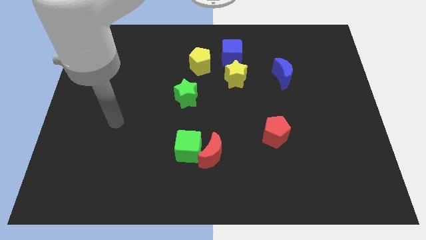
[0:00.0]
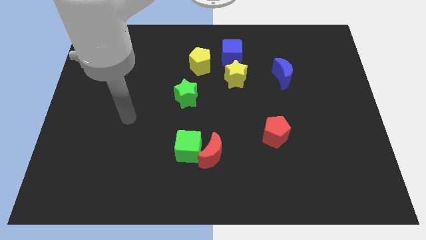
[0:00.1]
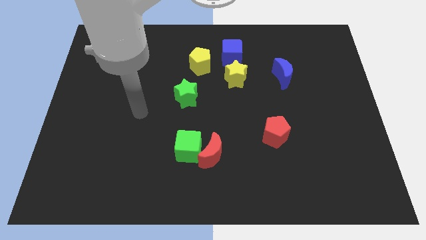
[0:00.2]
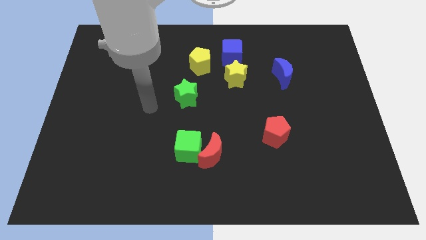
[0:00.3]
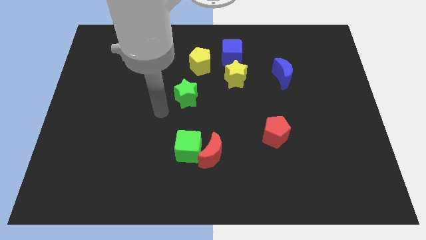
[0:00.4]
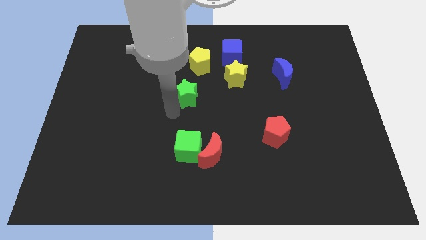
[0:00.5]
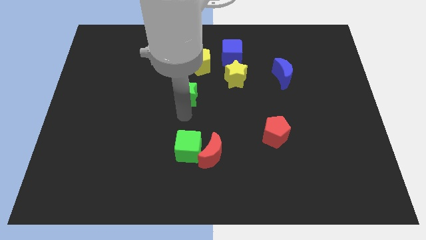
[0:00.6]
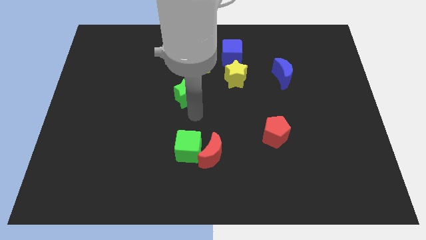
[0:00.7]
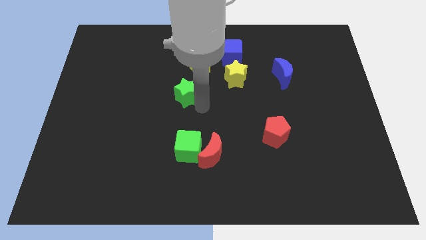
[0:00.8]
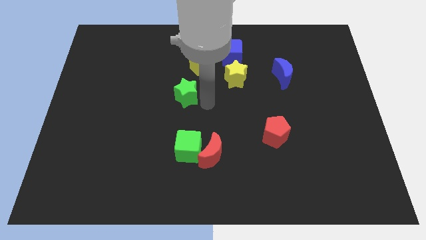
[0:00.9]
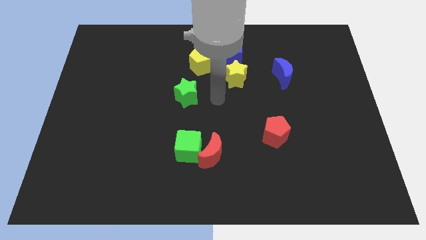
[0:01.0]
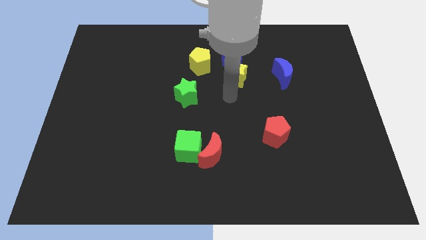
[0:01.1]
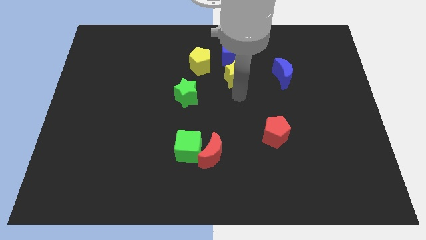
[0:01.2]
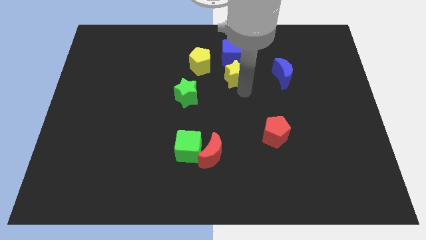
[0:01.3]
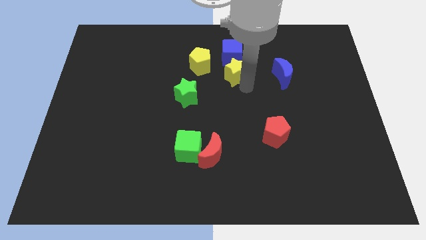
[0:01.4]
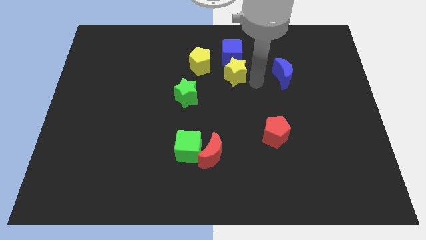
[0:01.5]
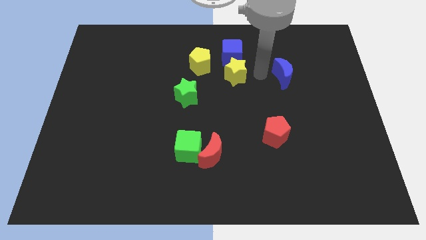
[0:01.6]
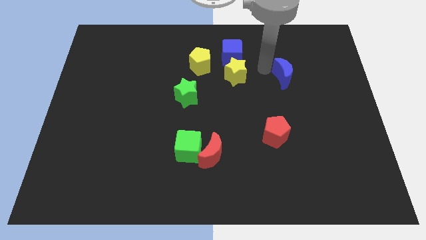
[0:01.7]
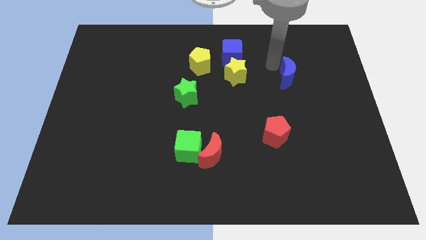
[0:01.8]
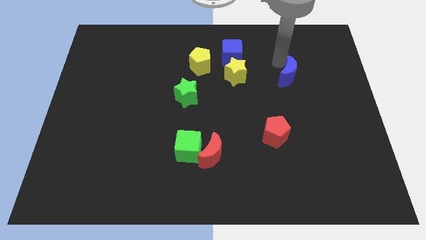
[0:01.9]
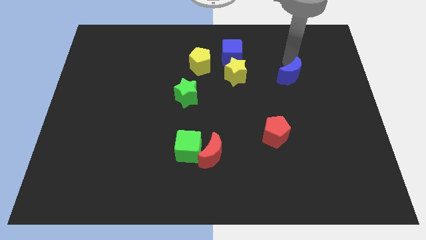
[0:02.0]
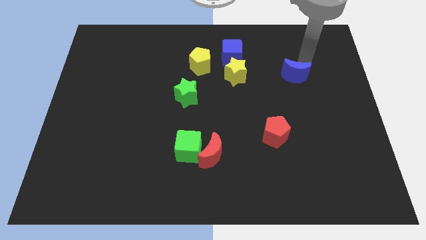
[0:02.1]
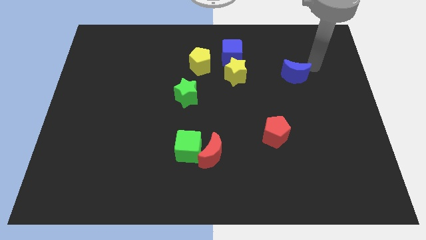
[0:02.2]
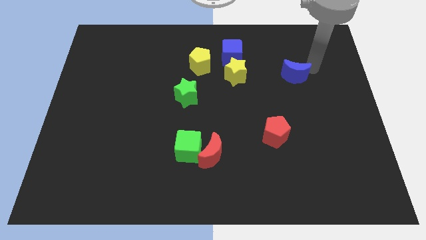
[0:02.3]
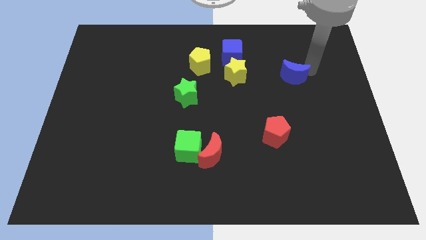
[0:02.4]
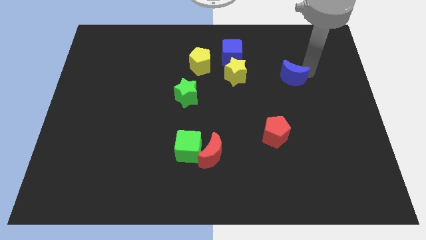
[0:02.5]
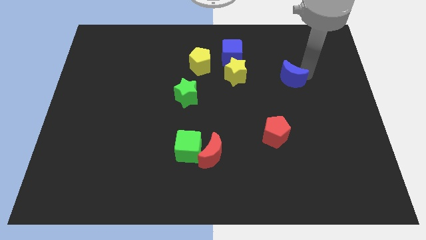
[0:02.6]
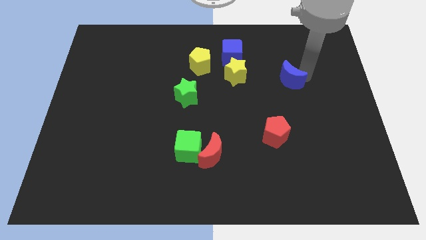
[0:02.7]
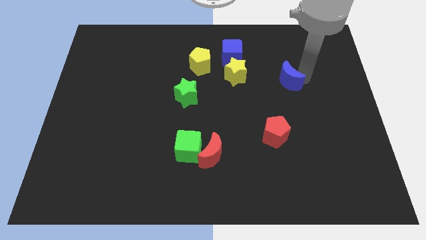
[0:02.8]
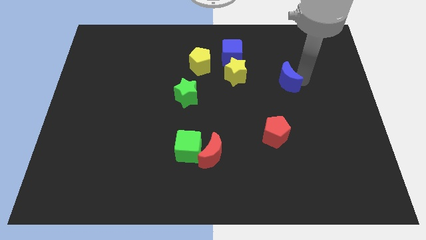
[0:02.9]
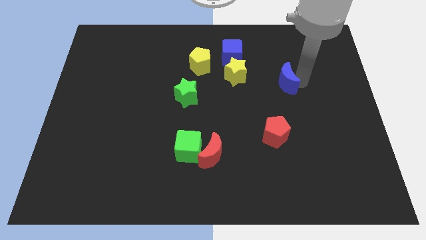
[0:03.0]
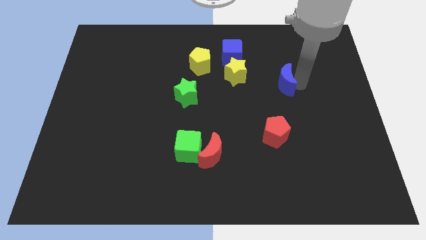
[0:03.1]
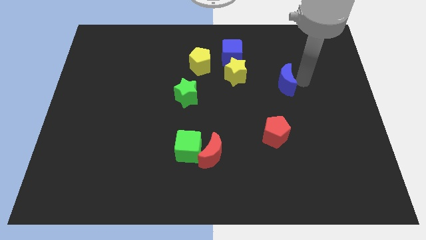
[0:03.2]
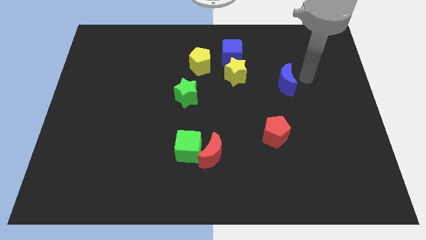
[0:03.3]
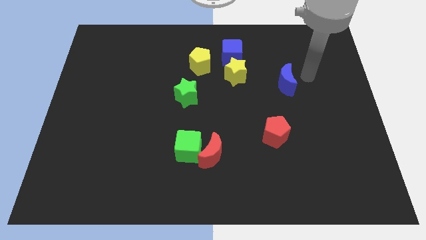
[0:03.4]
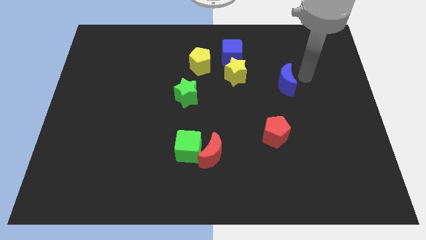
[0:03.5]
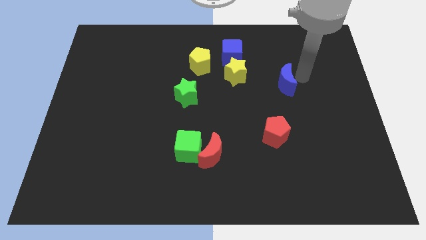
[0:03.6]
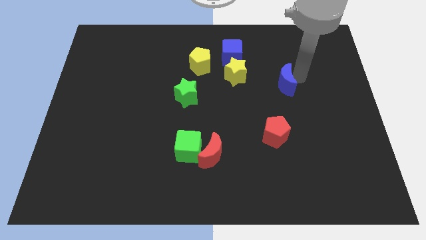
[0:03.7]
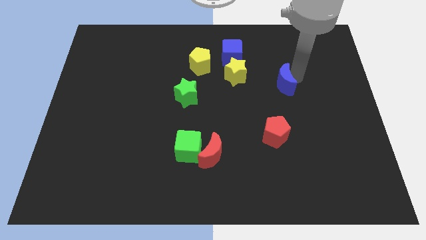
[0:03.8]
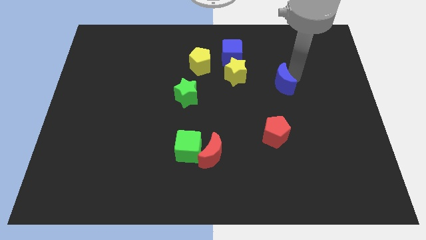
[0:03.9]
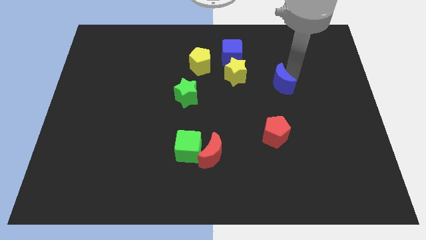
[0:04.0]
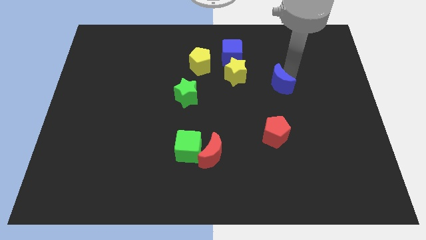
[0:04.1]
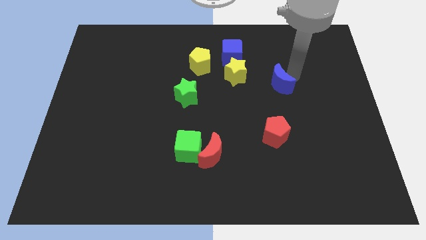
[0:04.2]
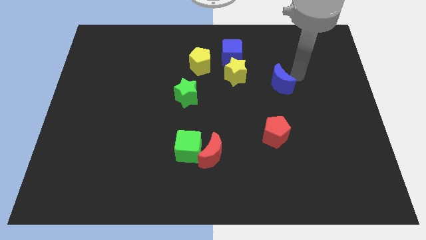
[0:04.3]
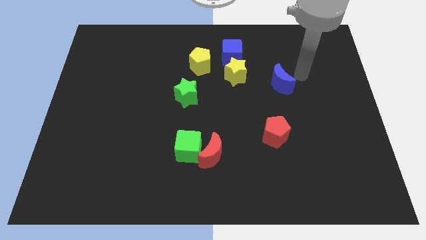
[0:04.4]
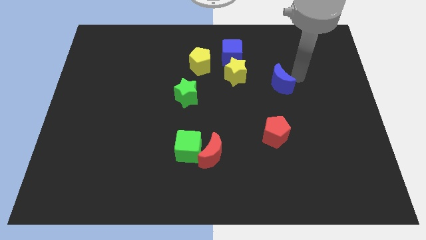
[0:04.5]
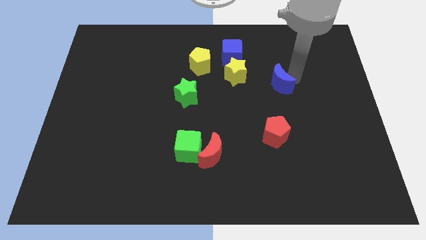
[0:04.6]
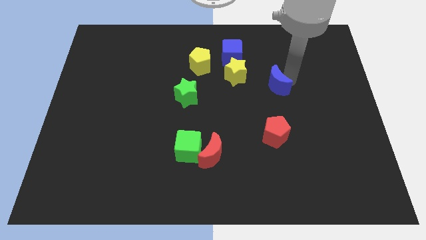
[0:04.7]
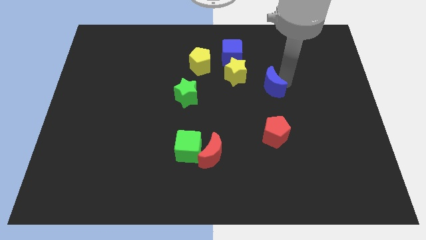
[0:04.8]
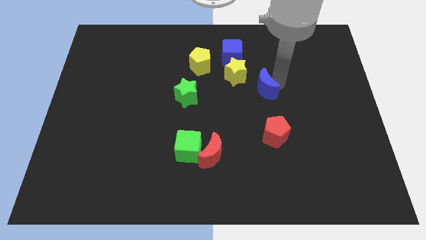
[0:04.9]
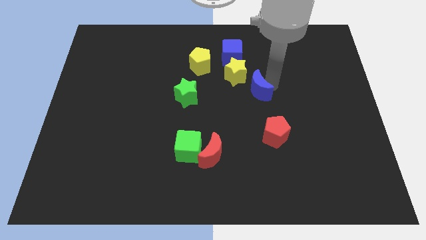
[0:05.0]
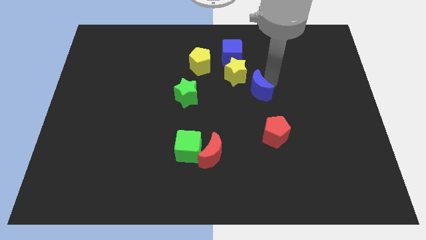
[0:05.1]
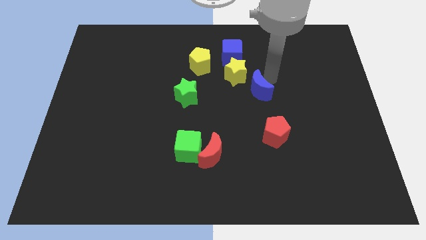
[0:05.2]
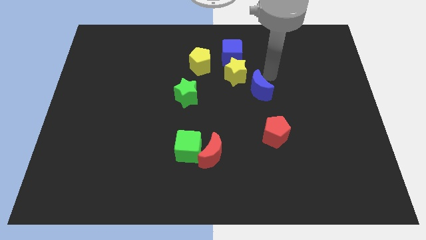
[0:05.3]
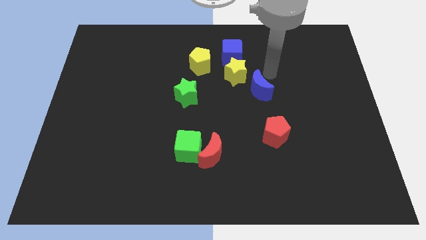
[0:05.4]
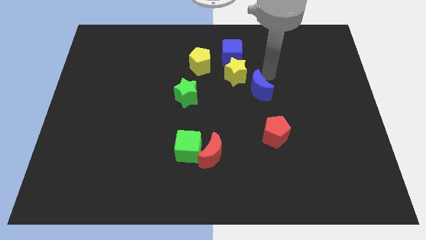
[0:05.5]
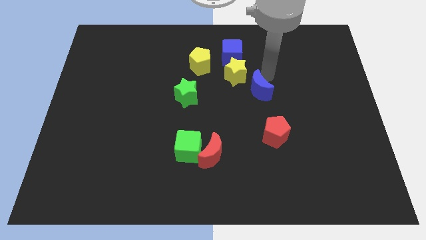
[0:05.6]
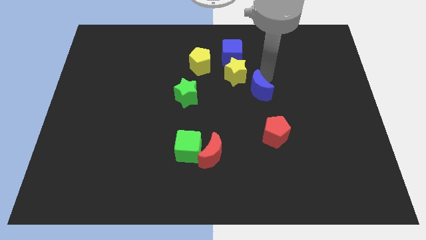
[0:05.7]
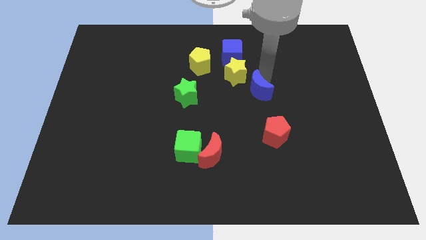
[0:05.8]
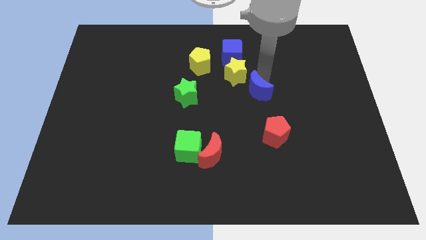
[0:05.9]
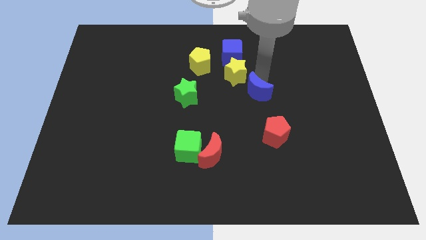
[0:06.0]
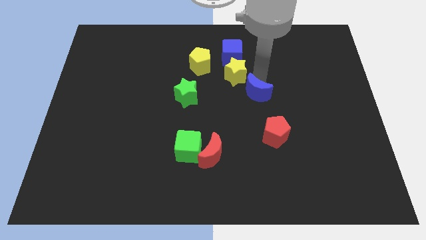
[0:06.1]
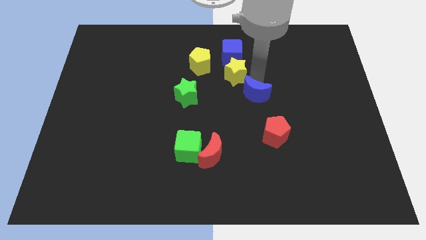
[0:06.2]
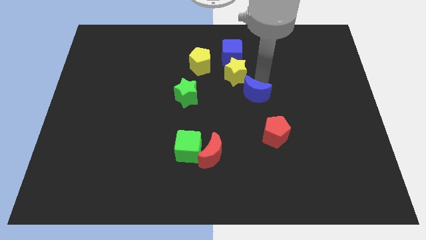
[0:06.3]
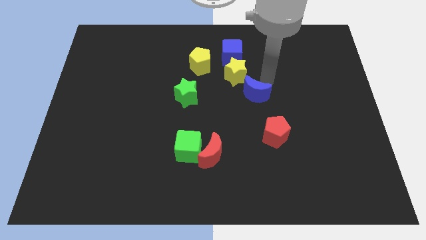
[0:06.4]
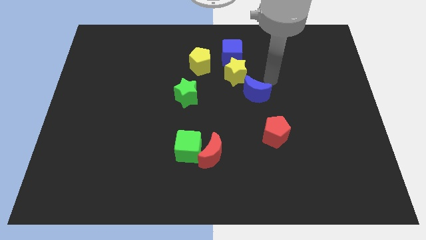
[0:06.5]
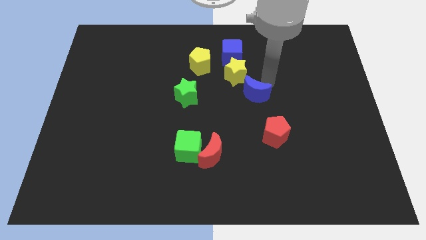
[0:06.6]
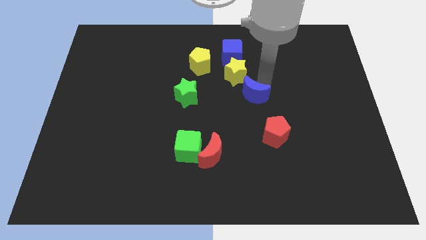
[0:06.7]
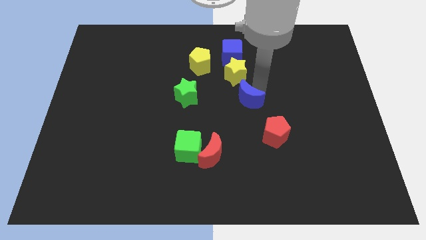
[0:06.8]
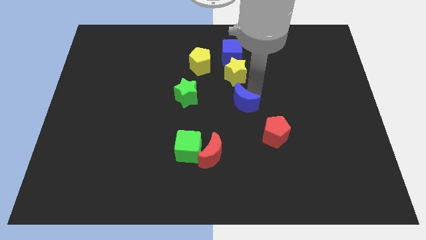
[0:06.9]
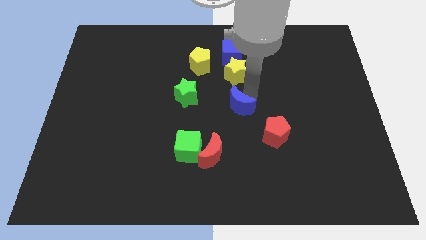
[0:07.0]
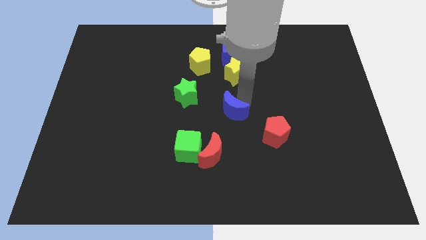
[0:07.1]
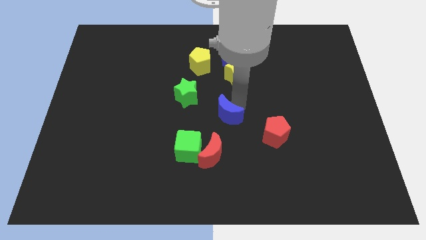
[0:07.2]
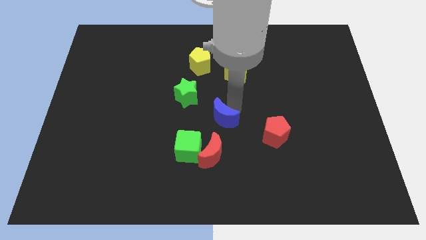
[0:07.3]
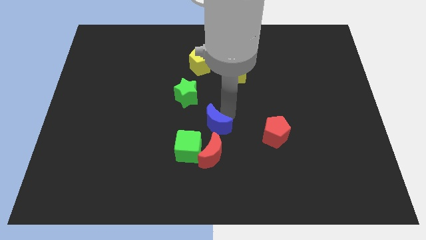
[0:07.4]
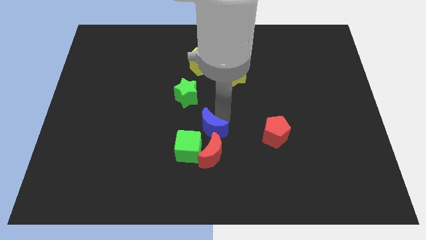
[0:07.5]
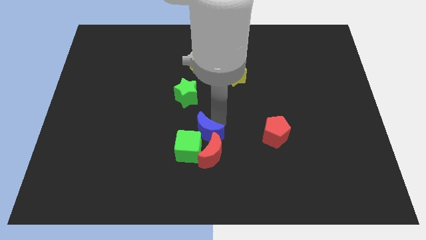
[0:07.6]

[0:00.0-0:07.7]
move the blue moon close to the green cube
